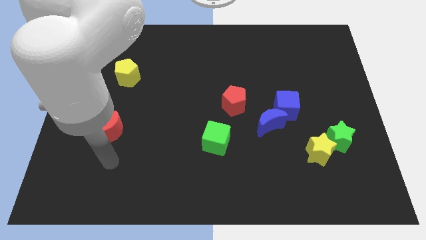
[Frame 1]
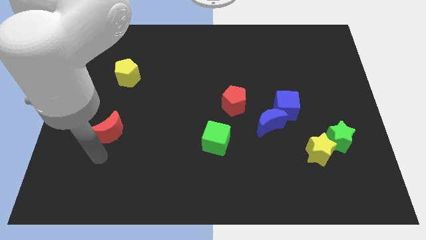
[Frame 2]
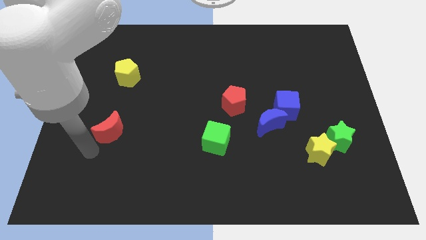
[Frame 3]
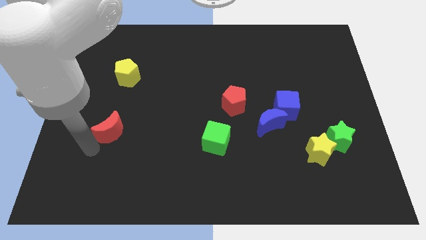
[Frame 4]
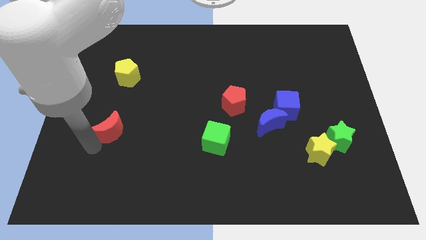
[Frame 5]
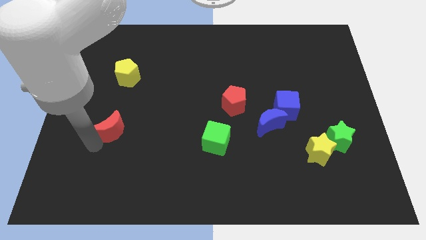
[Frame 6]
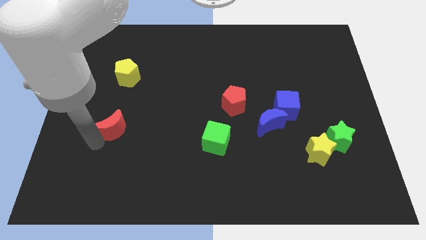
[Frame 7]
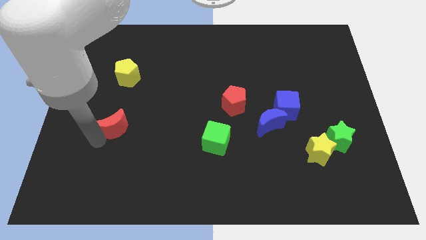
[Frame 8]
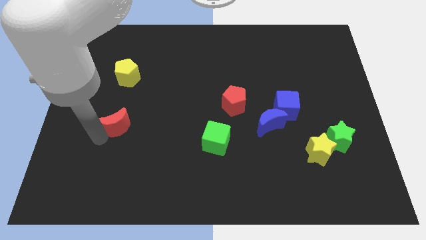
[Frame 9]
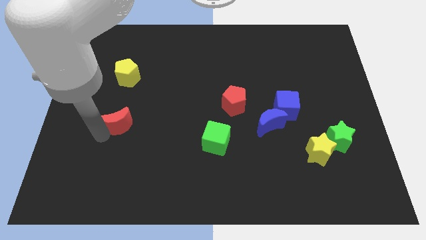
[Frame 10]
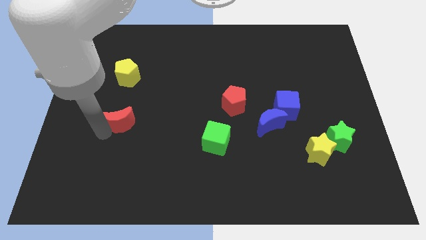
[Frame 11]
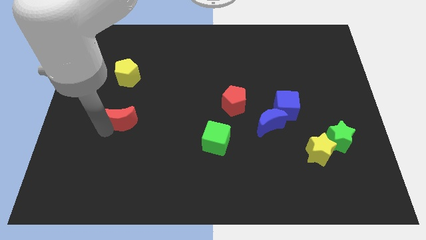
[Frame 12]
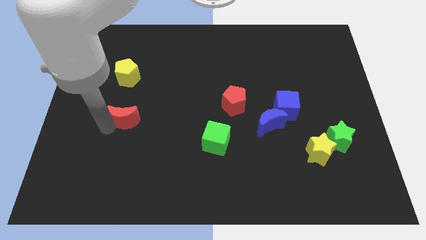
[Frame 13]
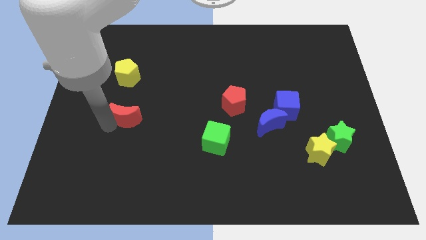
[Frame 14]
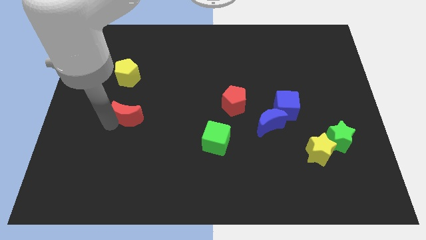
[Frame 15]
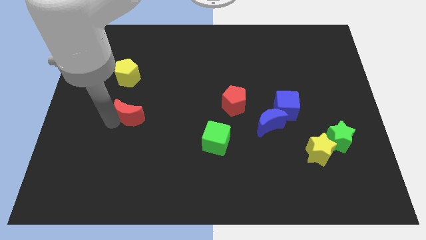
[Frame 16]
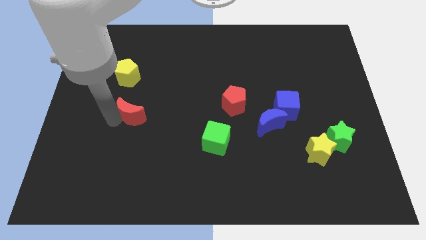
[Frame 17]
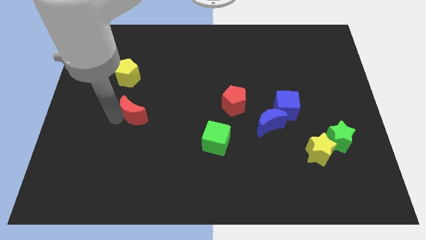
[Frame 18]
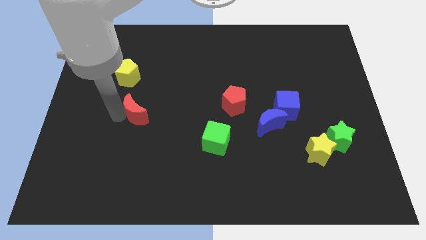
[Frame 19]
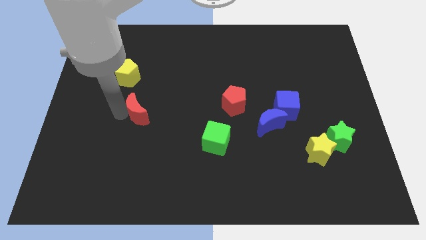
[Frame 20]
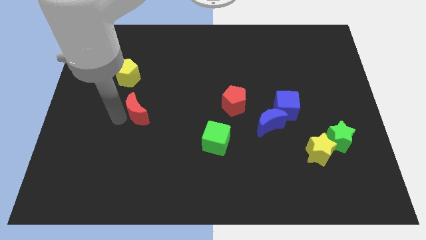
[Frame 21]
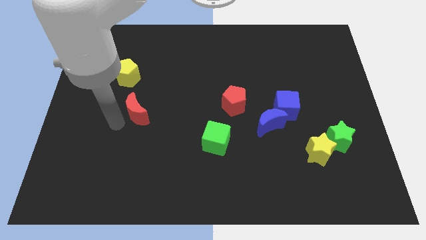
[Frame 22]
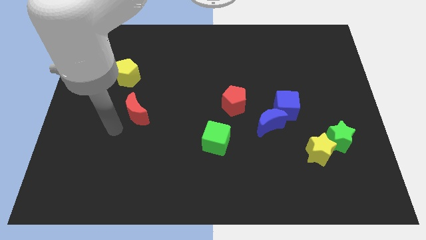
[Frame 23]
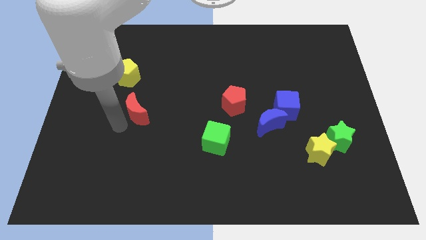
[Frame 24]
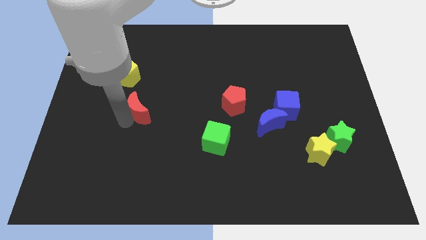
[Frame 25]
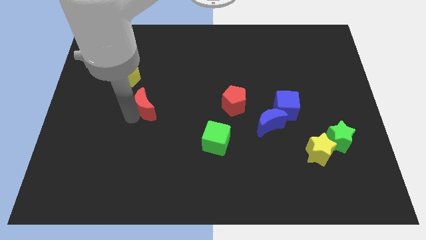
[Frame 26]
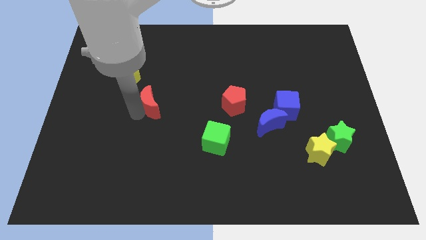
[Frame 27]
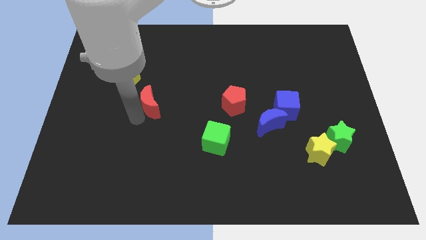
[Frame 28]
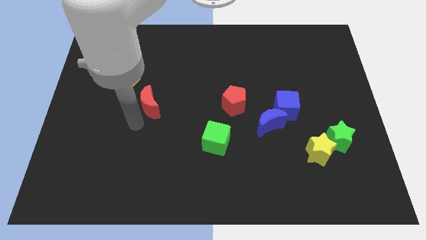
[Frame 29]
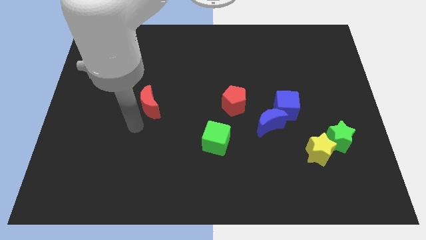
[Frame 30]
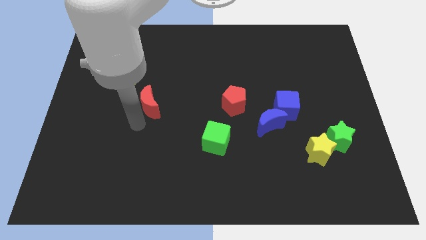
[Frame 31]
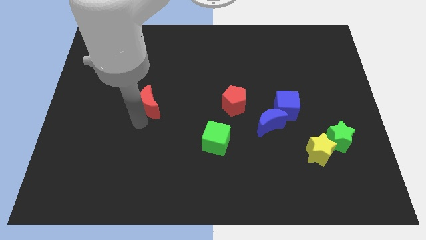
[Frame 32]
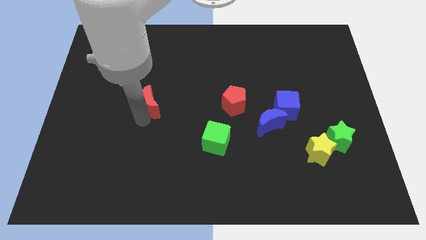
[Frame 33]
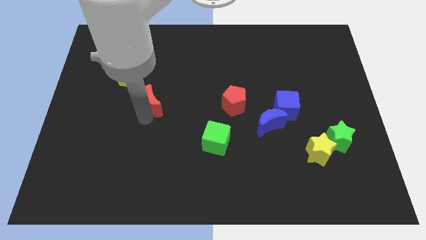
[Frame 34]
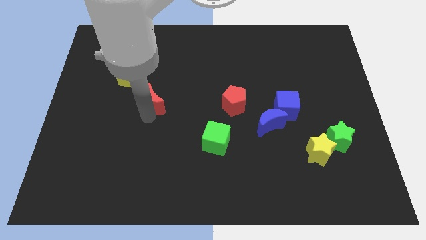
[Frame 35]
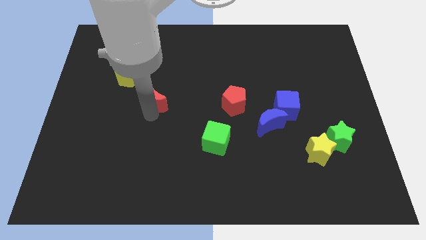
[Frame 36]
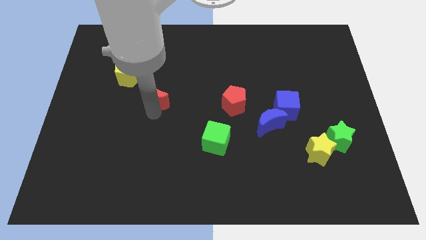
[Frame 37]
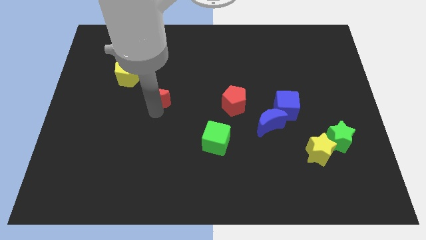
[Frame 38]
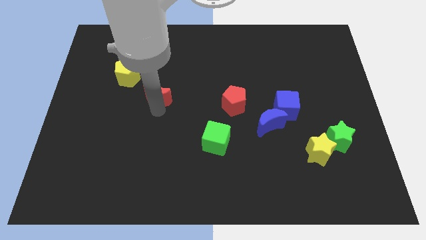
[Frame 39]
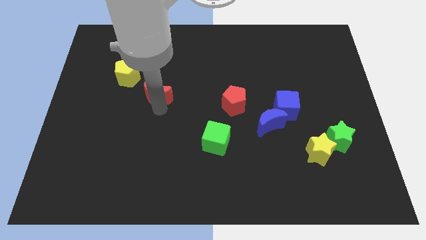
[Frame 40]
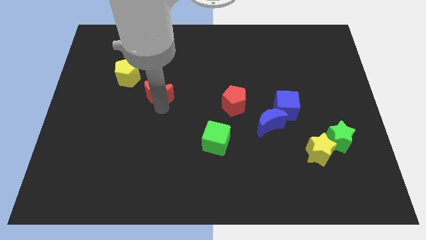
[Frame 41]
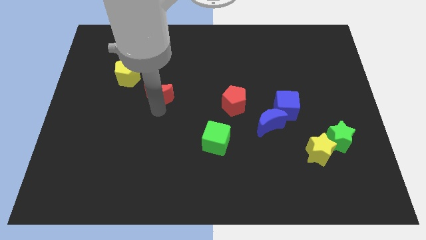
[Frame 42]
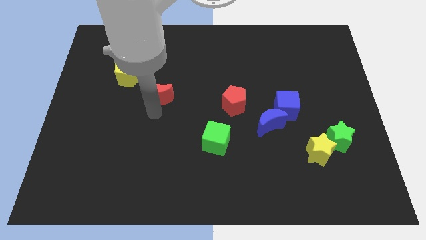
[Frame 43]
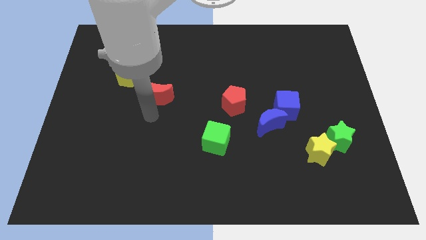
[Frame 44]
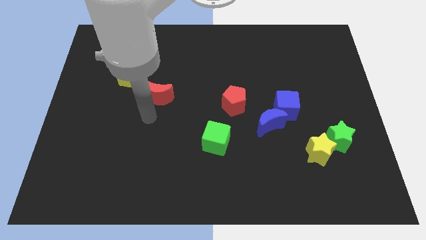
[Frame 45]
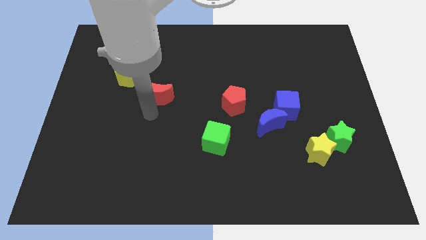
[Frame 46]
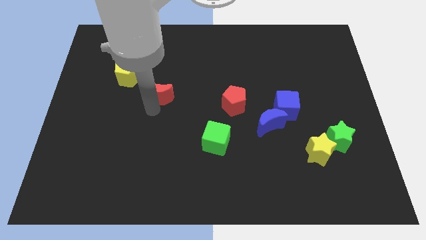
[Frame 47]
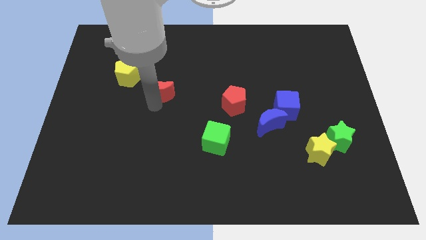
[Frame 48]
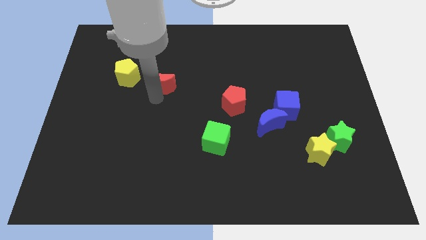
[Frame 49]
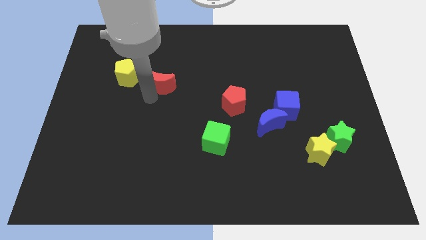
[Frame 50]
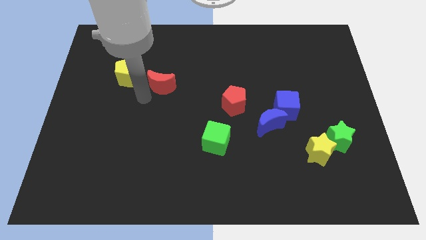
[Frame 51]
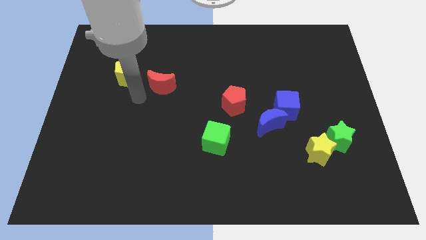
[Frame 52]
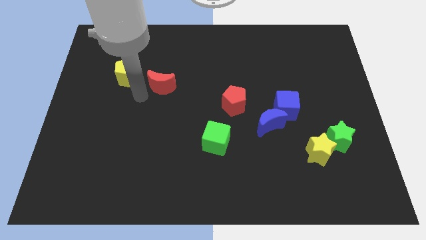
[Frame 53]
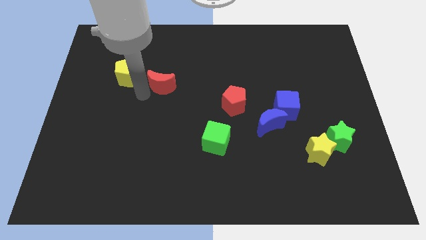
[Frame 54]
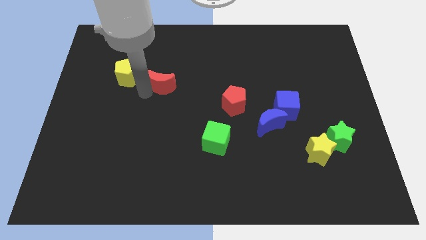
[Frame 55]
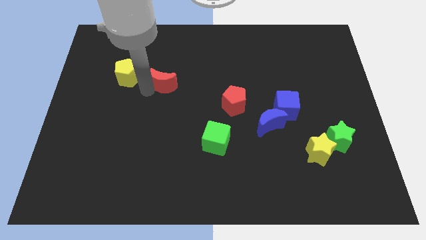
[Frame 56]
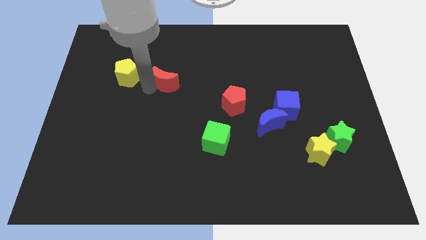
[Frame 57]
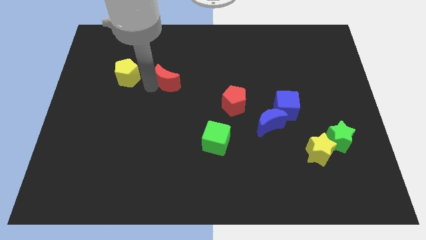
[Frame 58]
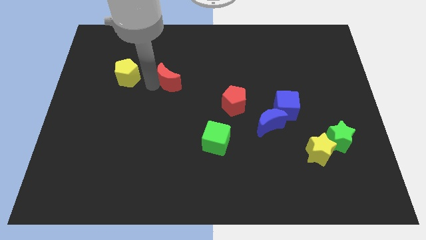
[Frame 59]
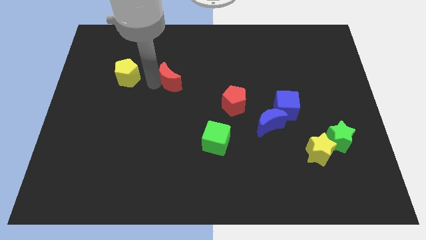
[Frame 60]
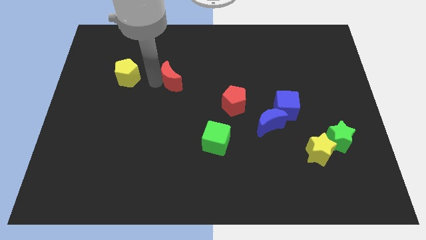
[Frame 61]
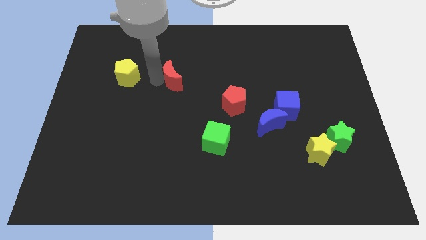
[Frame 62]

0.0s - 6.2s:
push the red moon upwards and then right

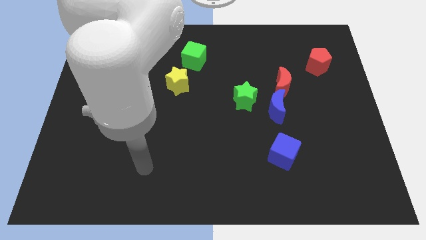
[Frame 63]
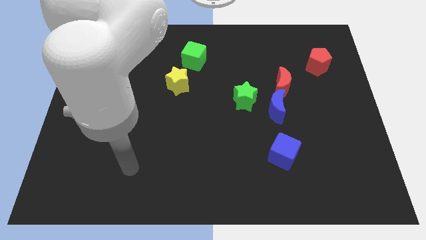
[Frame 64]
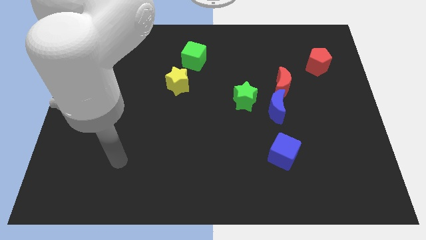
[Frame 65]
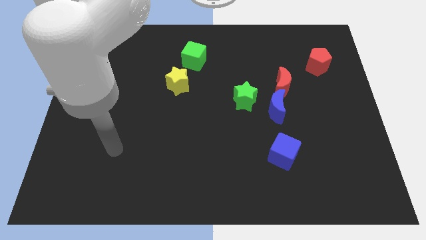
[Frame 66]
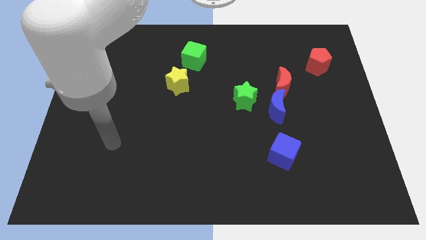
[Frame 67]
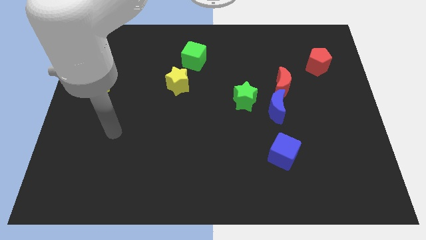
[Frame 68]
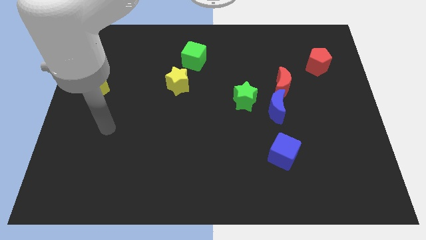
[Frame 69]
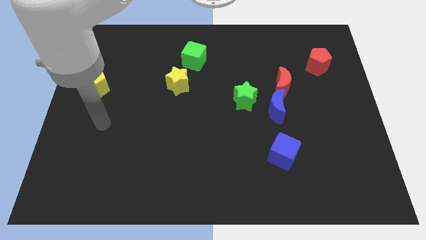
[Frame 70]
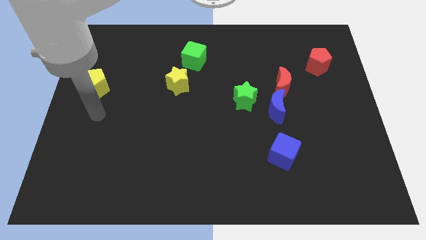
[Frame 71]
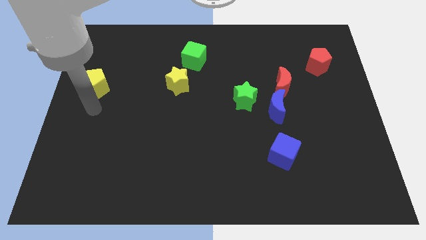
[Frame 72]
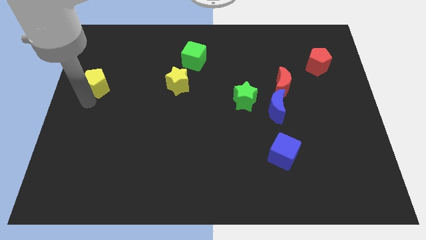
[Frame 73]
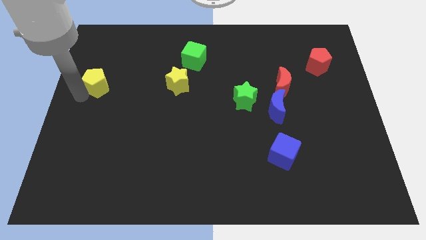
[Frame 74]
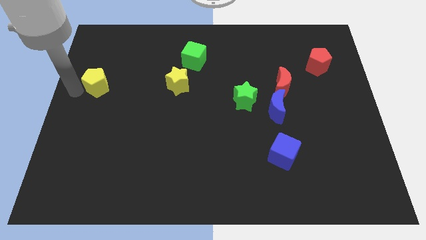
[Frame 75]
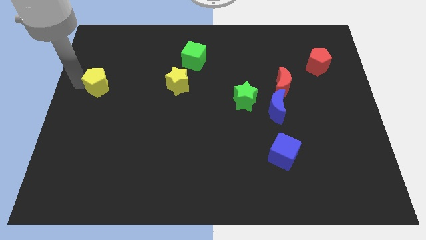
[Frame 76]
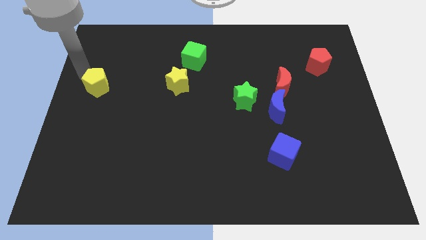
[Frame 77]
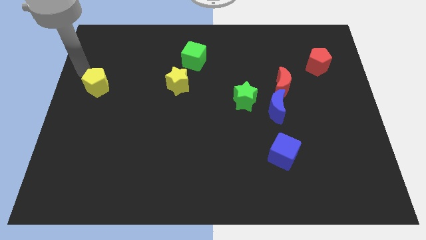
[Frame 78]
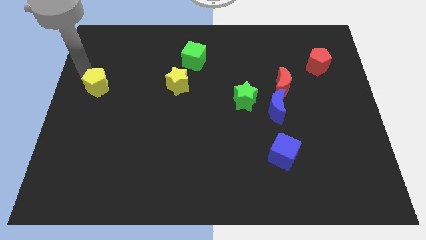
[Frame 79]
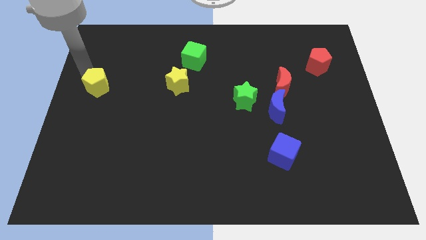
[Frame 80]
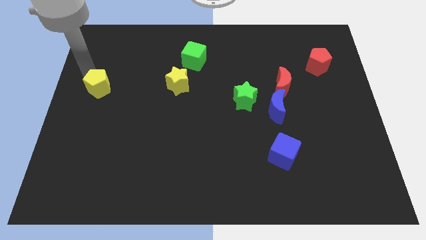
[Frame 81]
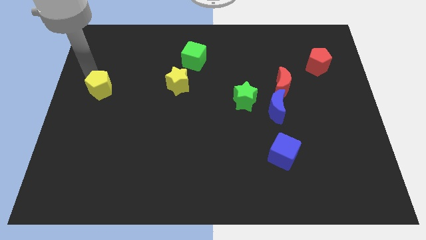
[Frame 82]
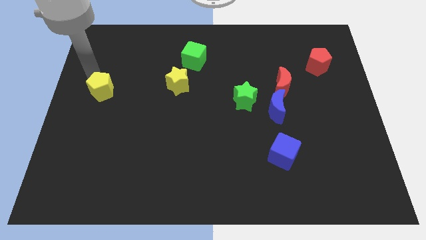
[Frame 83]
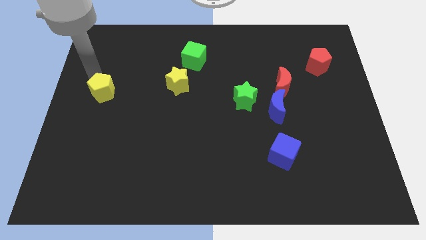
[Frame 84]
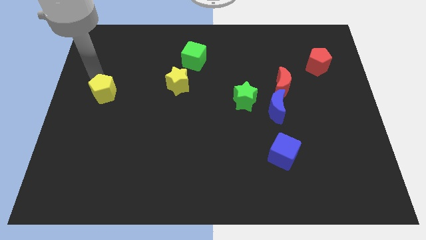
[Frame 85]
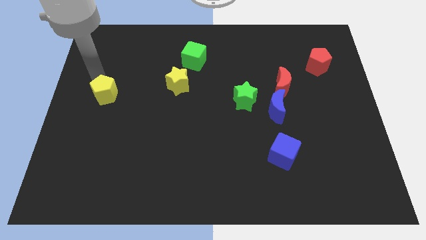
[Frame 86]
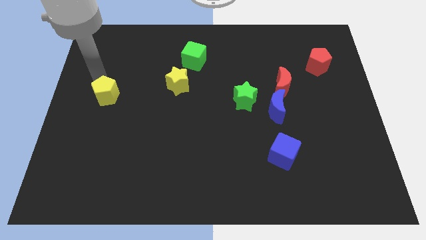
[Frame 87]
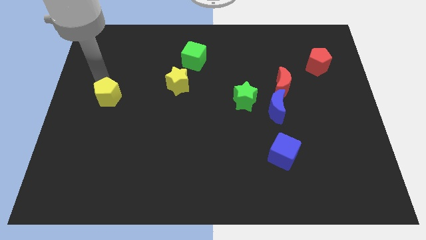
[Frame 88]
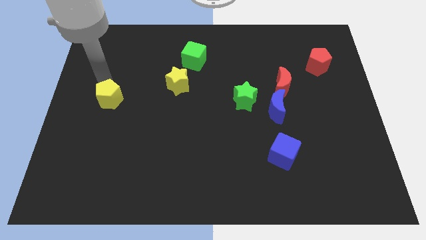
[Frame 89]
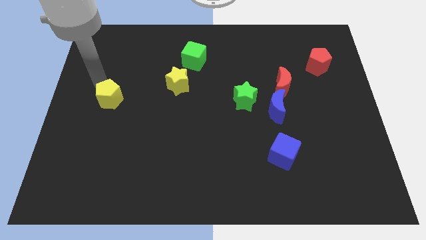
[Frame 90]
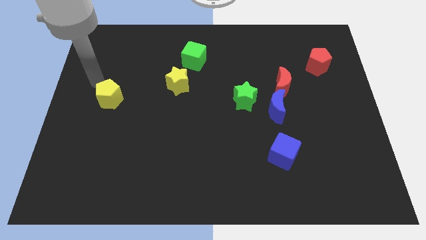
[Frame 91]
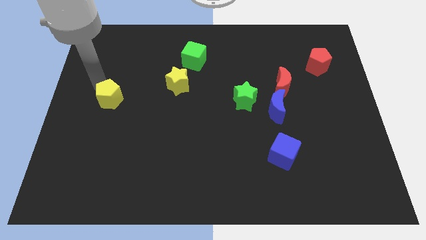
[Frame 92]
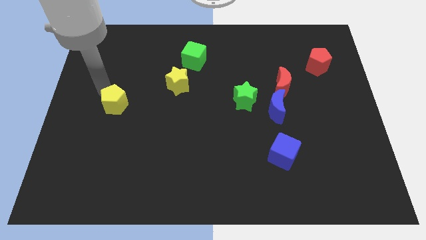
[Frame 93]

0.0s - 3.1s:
move the yellow pentagon downwards and right a little
